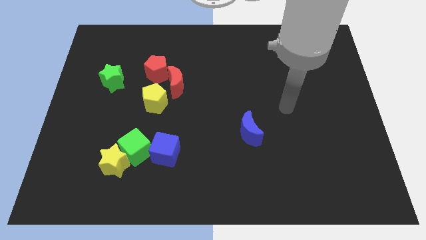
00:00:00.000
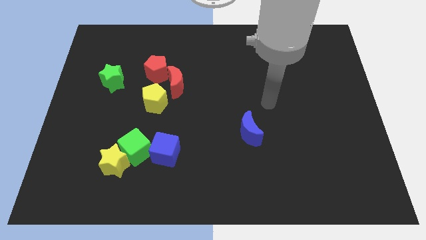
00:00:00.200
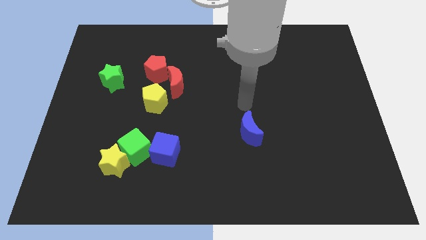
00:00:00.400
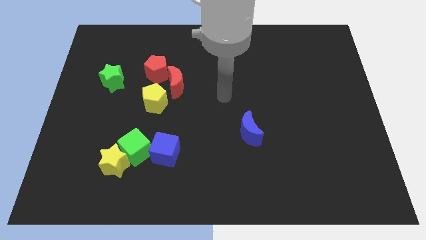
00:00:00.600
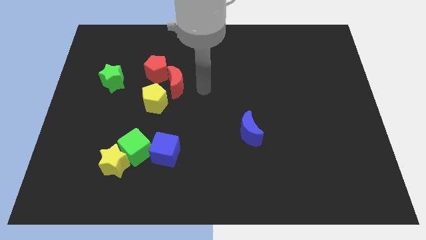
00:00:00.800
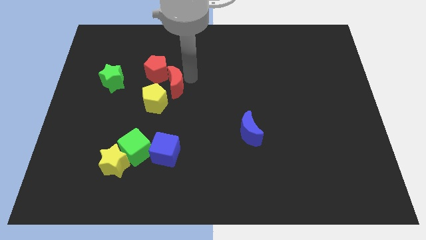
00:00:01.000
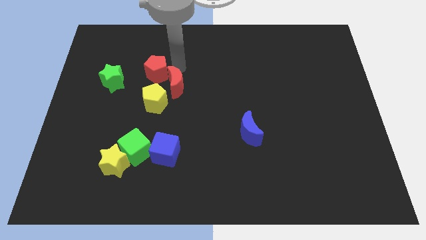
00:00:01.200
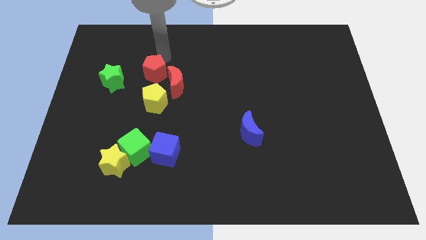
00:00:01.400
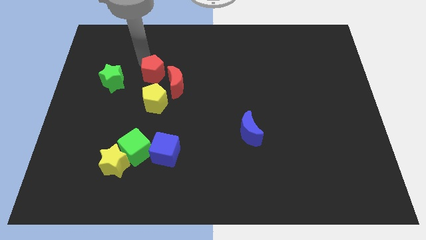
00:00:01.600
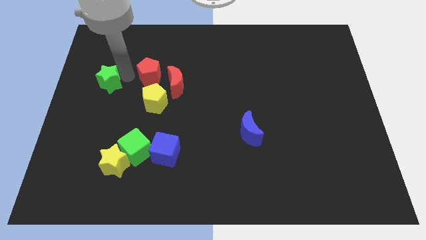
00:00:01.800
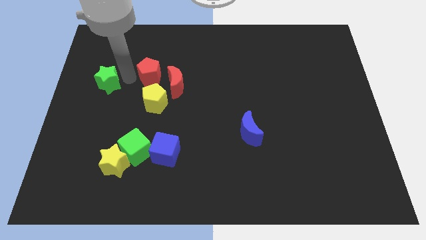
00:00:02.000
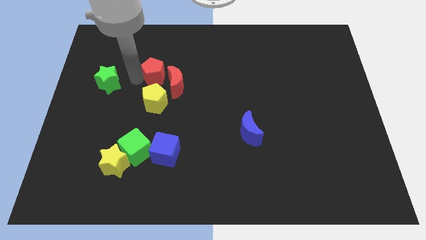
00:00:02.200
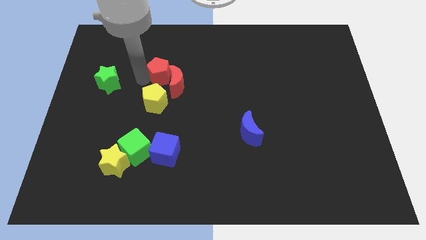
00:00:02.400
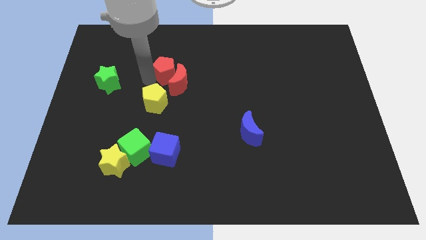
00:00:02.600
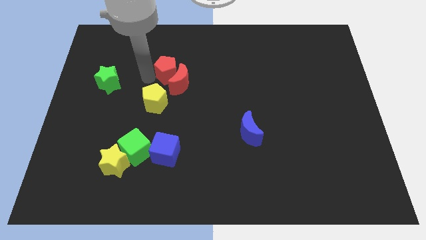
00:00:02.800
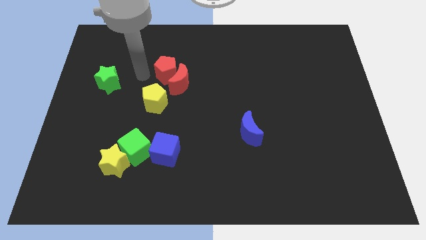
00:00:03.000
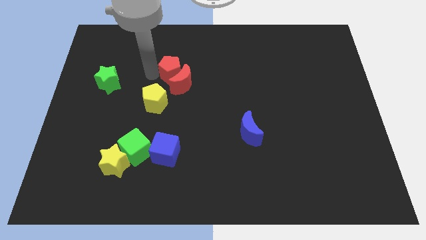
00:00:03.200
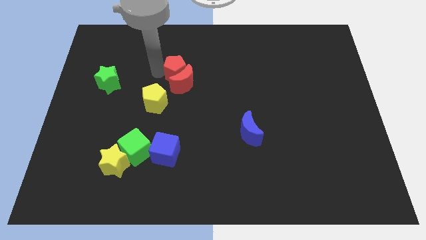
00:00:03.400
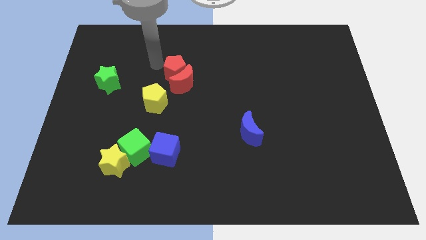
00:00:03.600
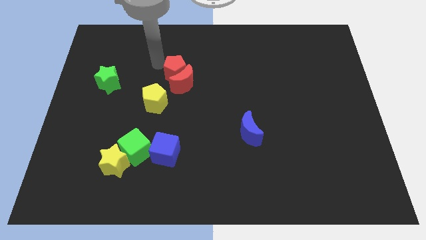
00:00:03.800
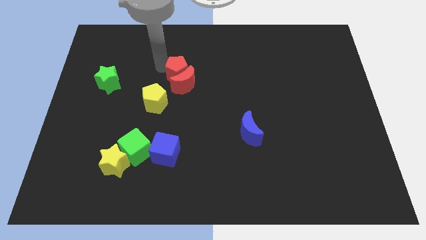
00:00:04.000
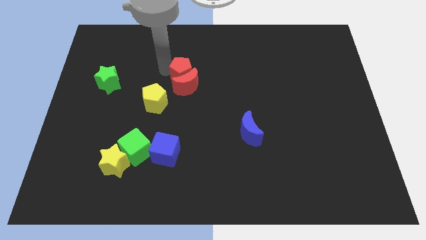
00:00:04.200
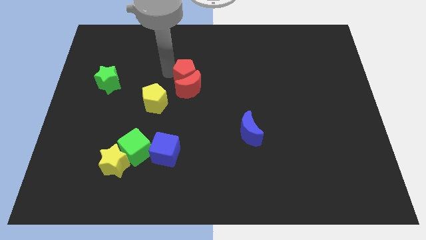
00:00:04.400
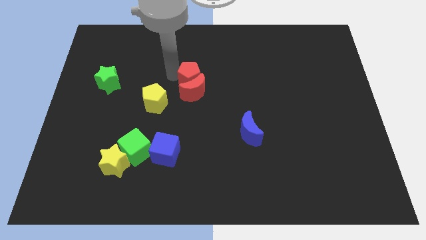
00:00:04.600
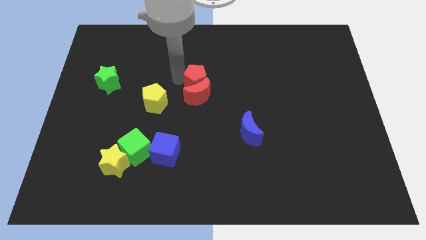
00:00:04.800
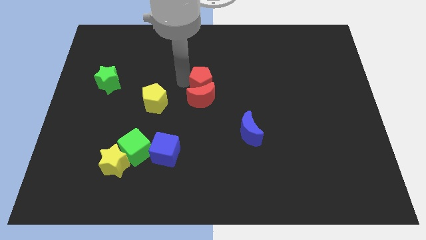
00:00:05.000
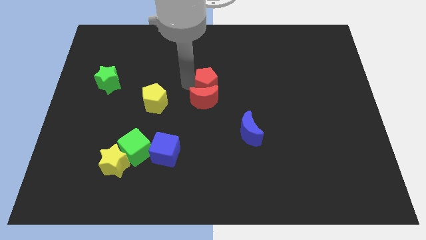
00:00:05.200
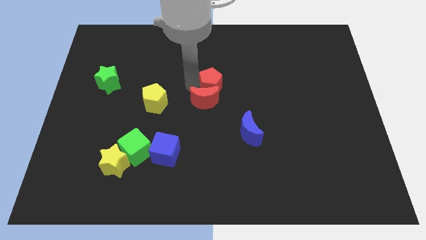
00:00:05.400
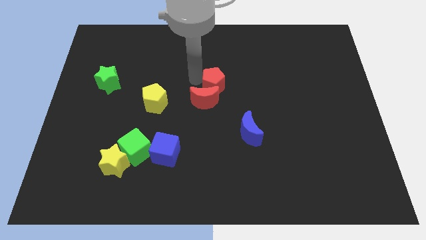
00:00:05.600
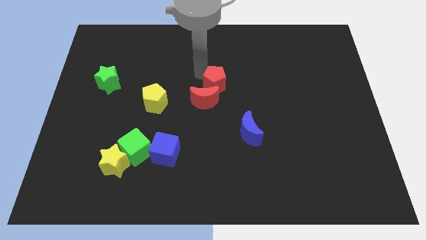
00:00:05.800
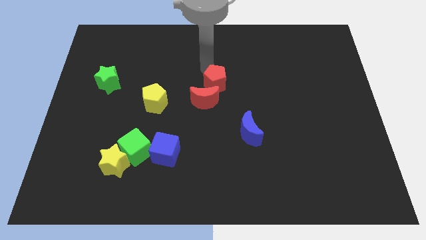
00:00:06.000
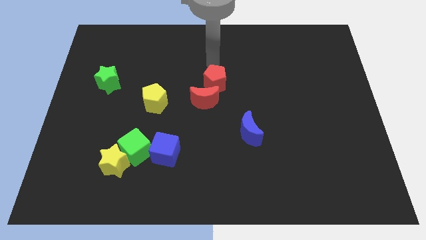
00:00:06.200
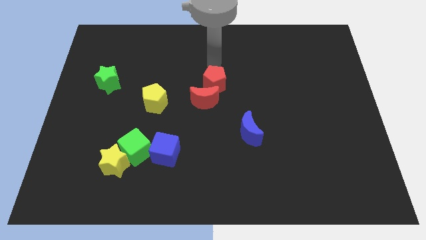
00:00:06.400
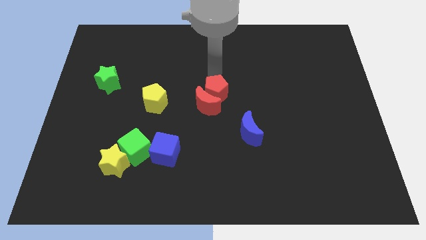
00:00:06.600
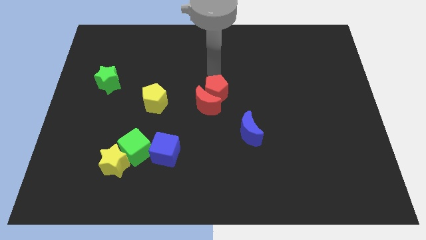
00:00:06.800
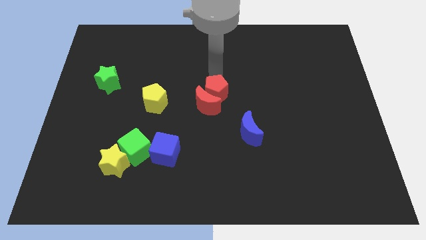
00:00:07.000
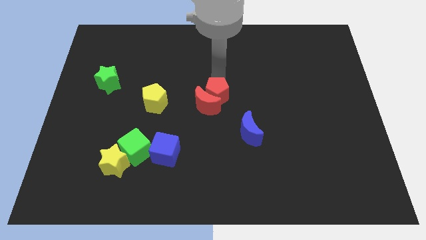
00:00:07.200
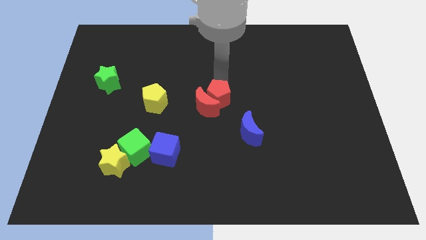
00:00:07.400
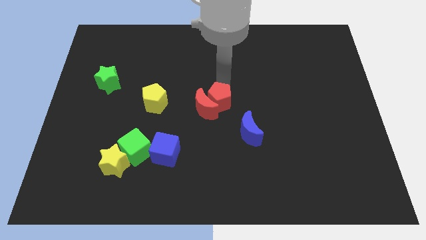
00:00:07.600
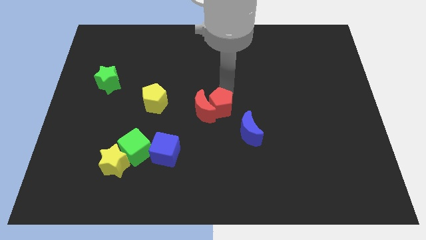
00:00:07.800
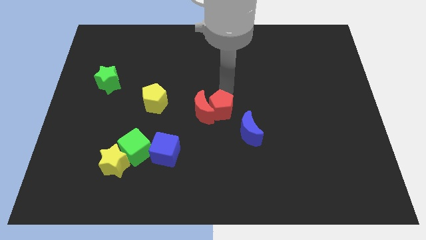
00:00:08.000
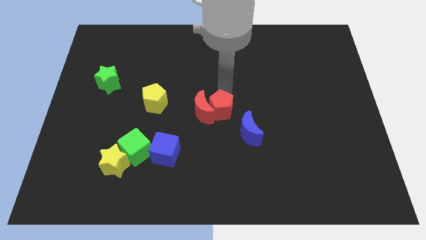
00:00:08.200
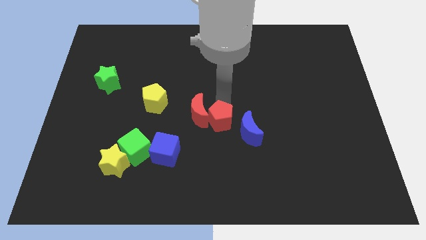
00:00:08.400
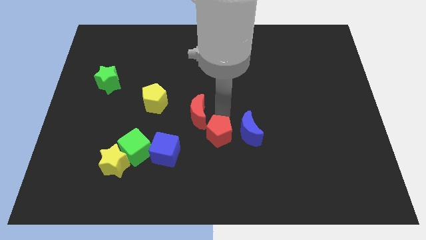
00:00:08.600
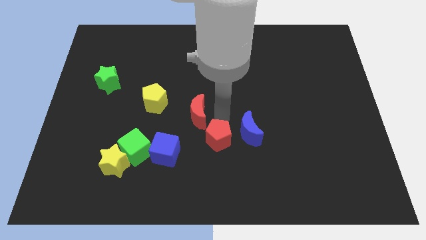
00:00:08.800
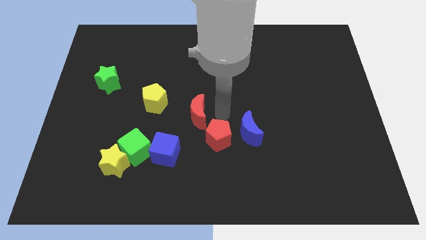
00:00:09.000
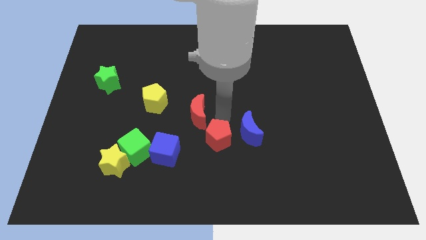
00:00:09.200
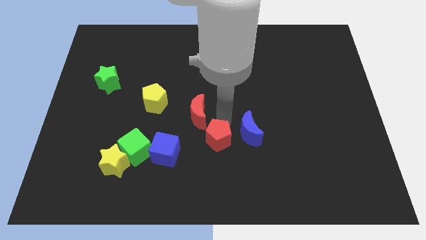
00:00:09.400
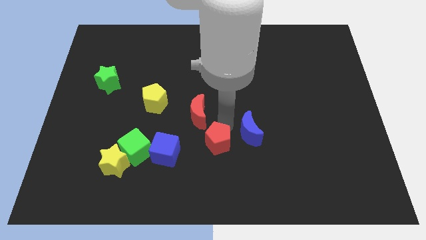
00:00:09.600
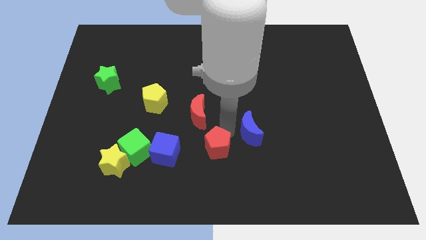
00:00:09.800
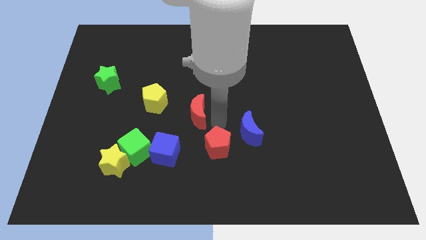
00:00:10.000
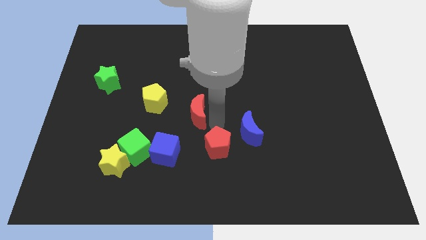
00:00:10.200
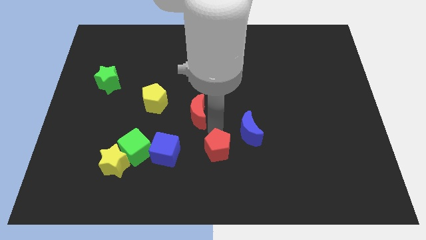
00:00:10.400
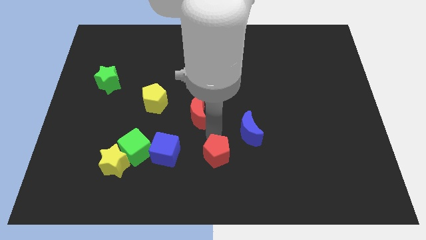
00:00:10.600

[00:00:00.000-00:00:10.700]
push the red pentagon to the bottom side
